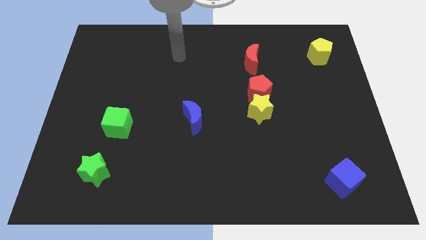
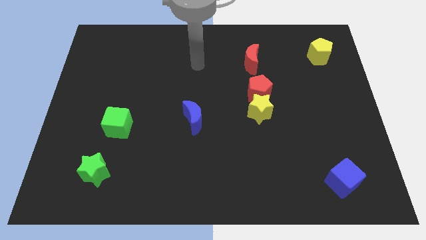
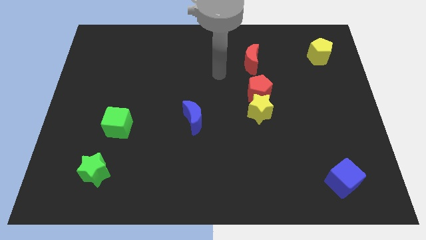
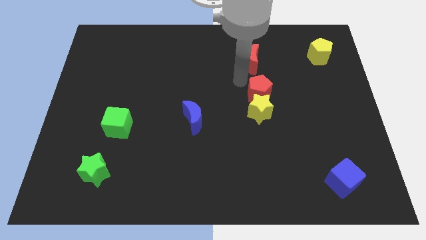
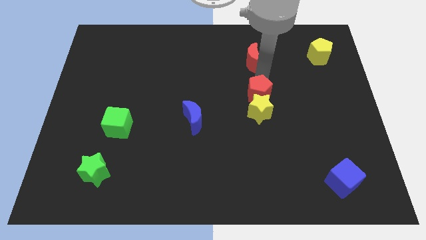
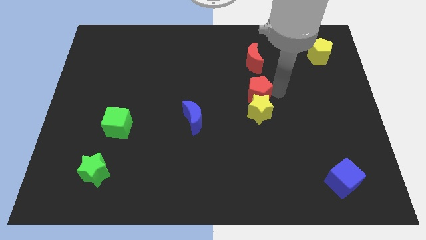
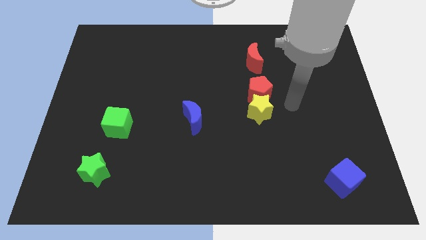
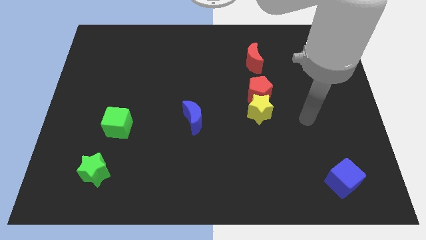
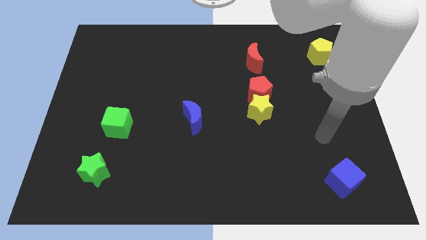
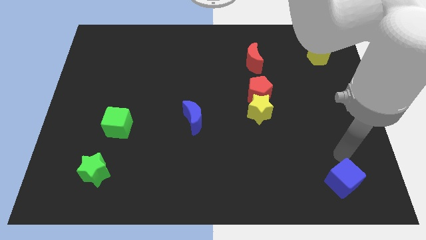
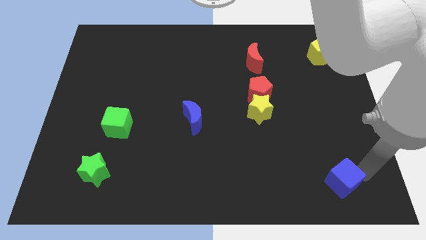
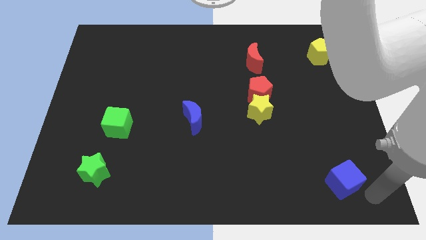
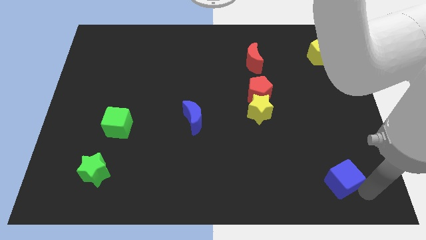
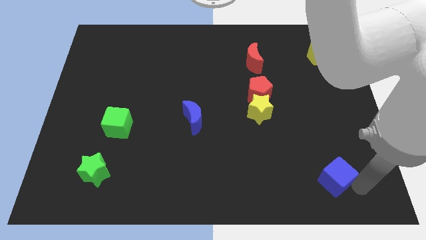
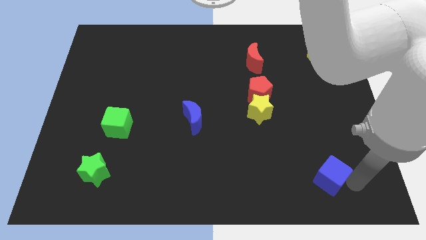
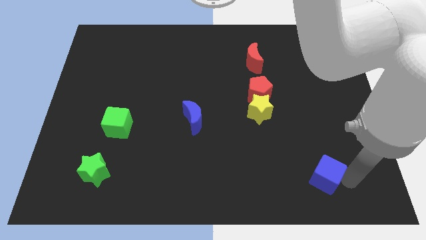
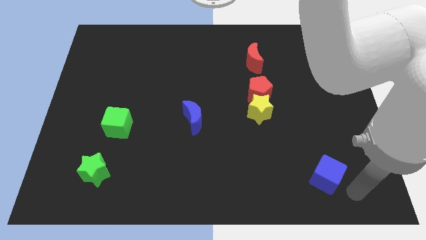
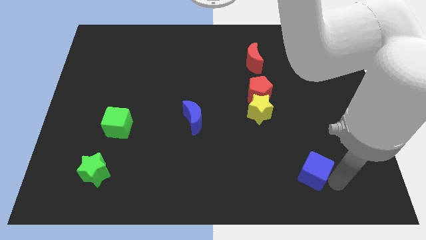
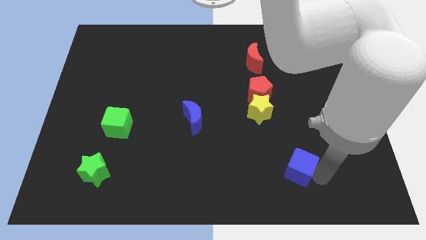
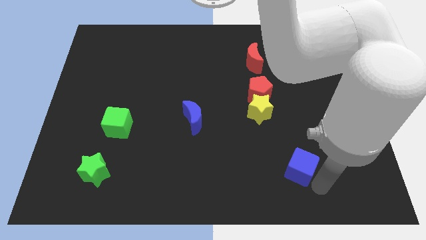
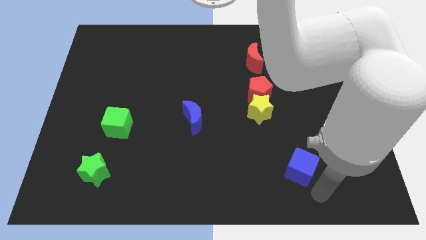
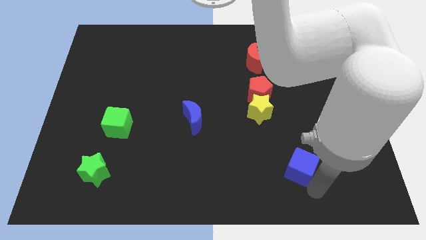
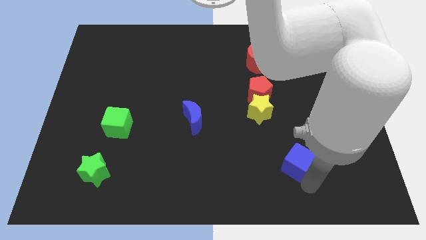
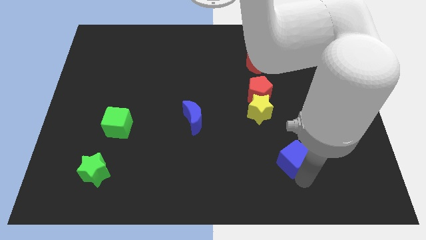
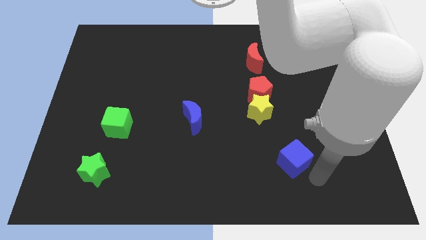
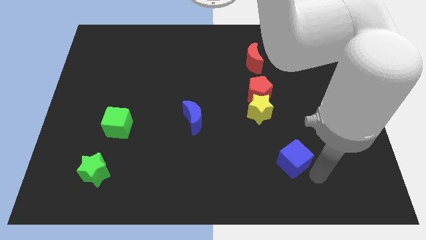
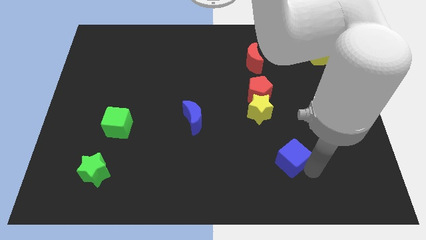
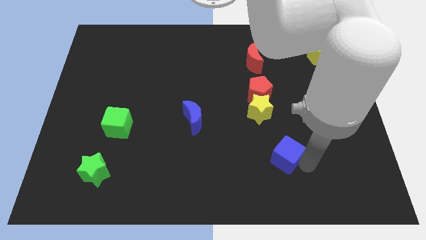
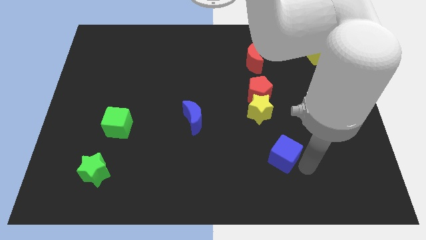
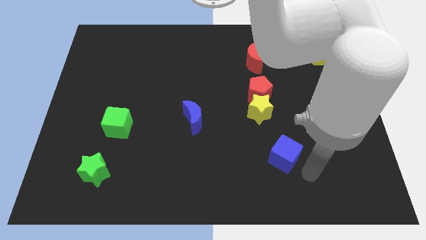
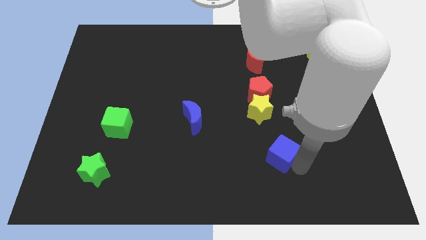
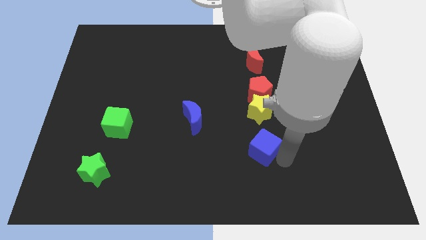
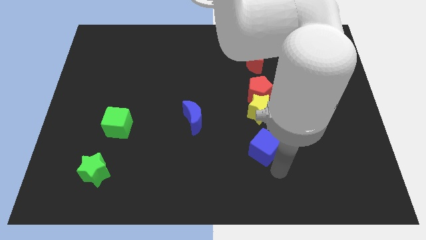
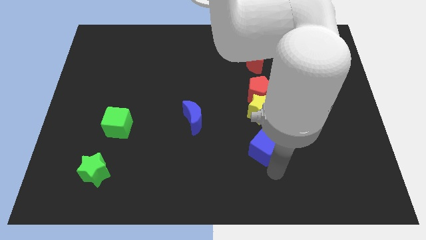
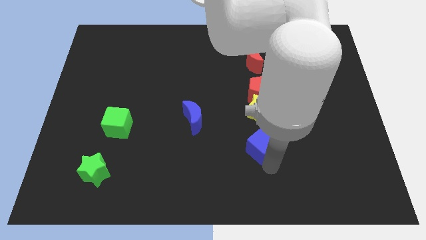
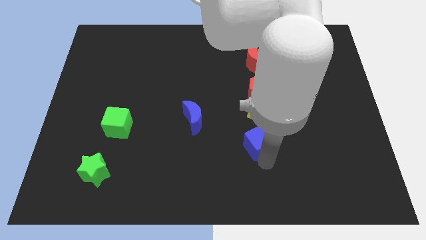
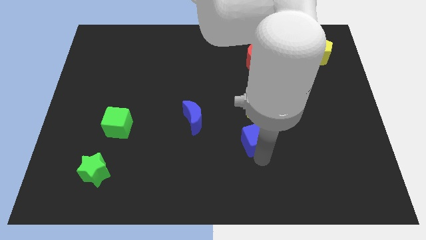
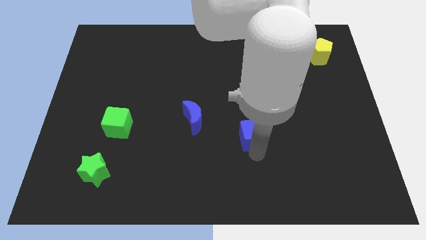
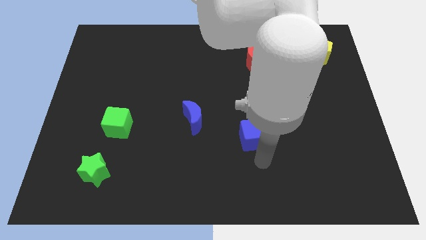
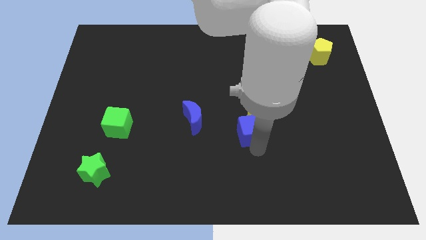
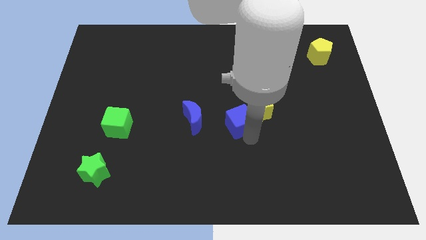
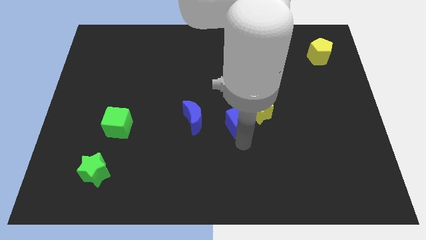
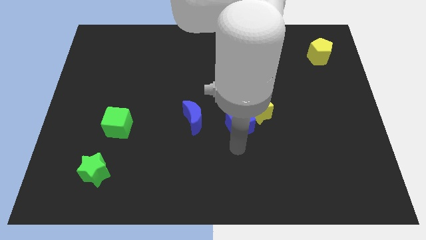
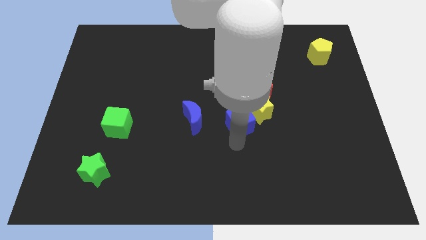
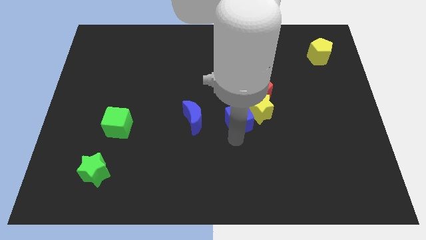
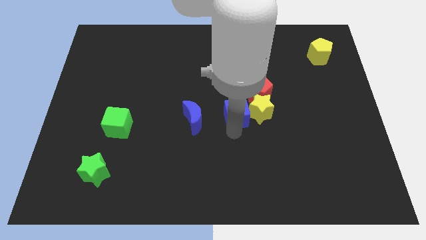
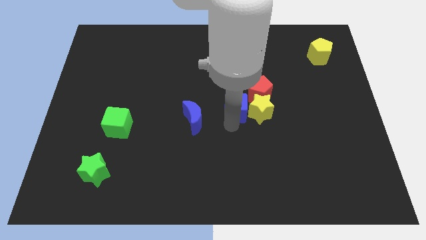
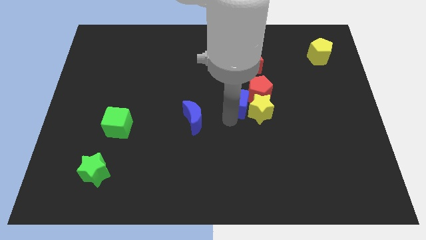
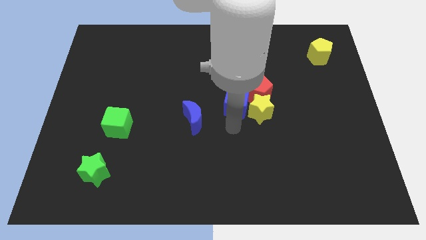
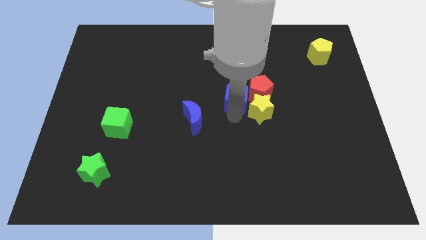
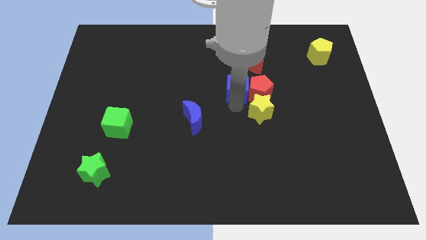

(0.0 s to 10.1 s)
move the blue cube to the bottom left of the red moon
